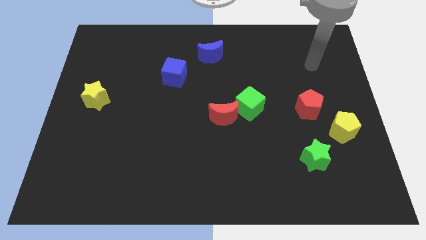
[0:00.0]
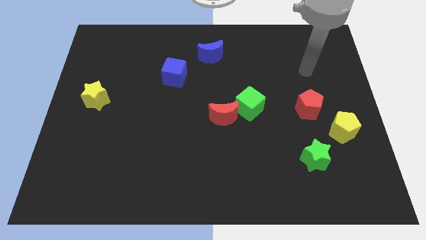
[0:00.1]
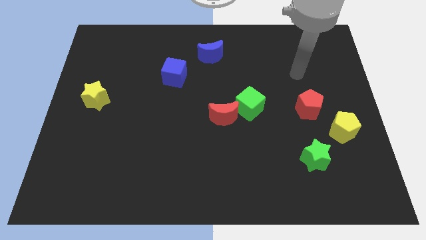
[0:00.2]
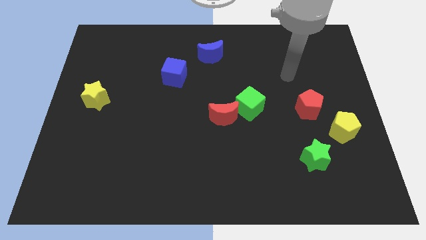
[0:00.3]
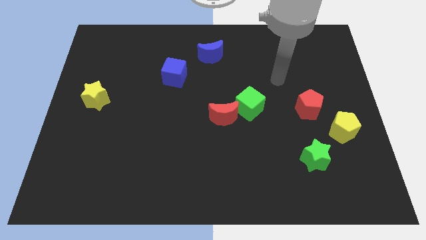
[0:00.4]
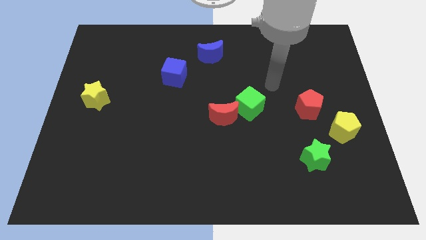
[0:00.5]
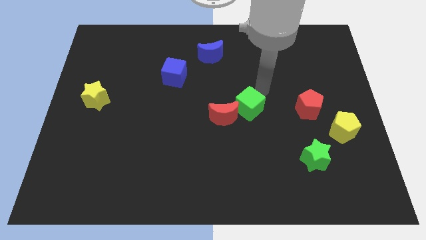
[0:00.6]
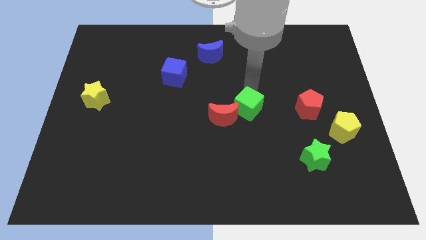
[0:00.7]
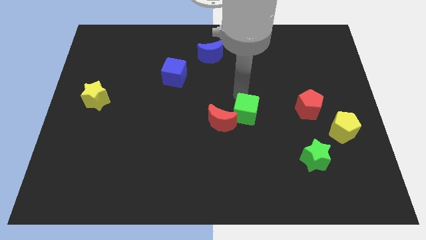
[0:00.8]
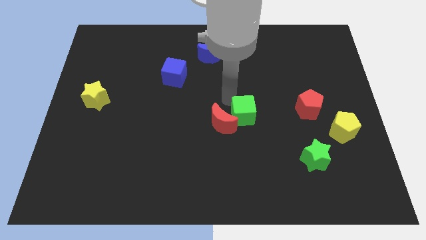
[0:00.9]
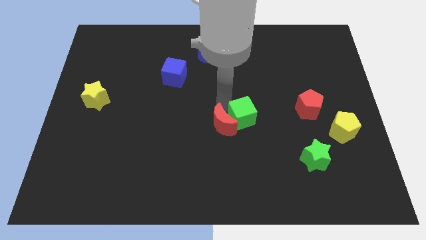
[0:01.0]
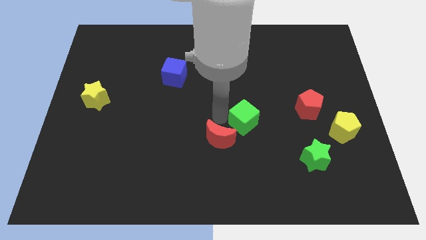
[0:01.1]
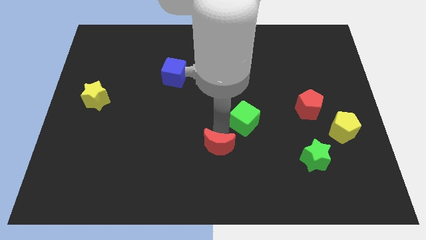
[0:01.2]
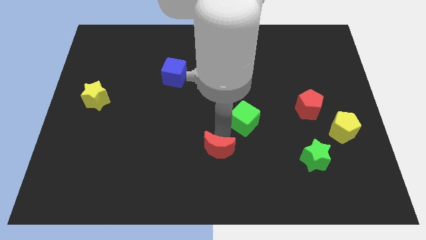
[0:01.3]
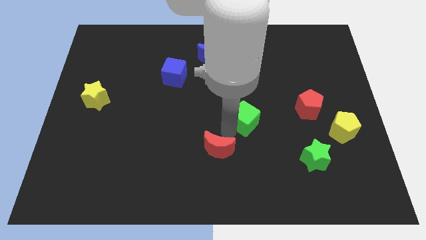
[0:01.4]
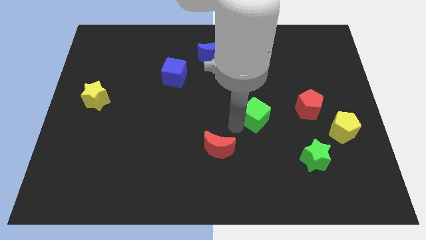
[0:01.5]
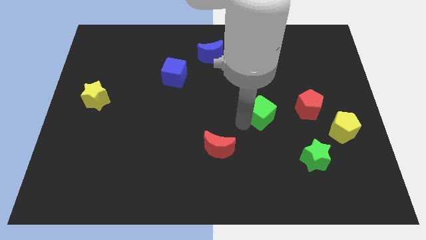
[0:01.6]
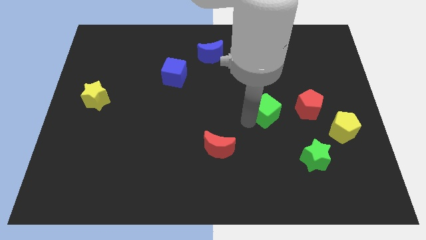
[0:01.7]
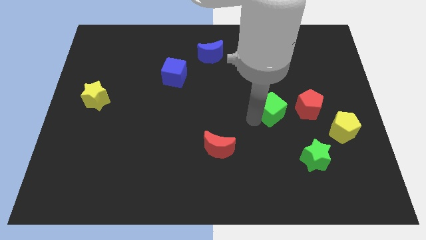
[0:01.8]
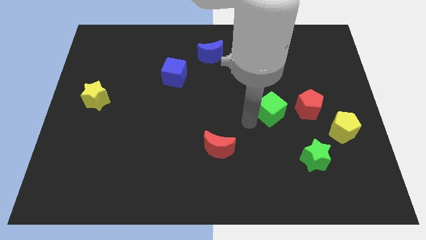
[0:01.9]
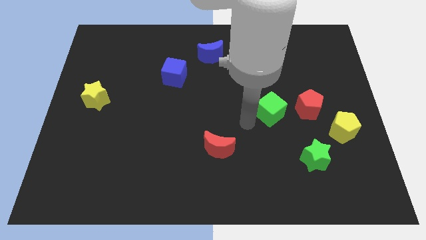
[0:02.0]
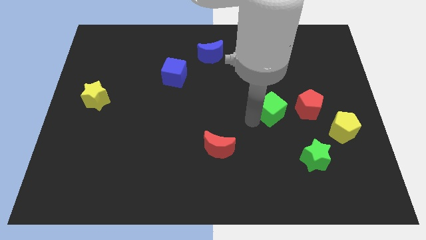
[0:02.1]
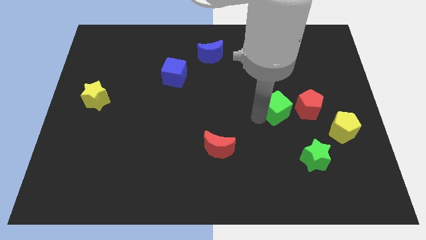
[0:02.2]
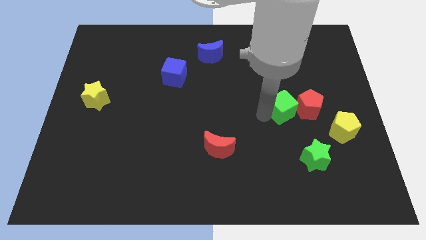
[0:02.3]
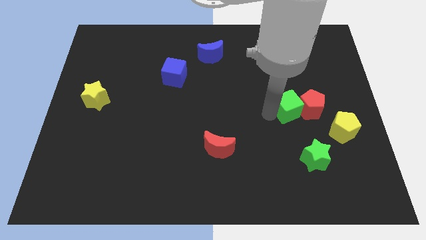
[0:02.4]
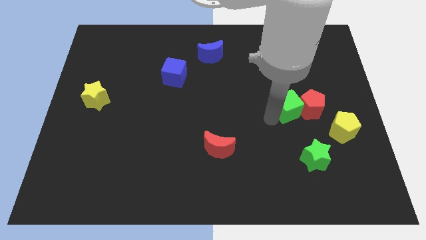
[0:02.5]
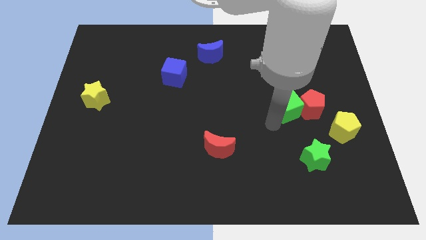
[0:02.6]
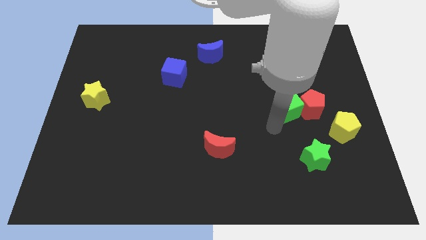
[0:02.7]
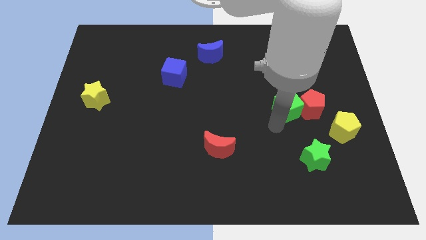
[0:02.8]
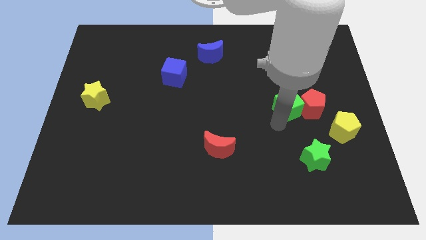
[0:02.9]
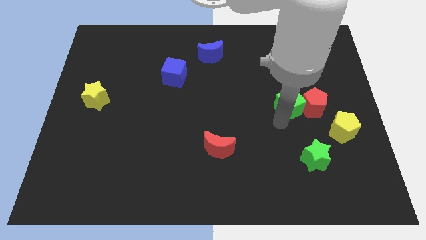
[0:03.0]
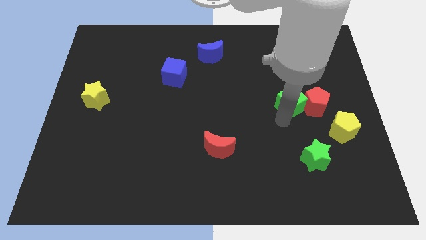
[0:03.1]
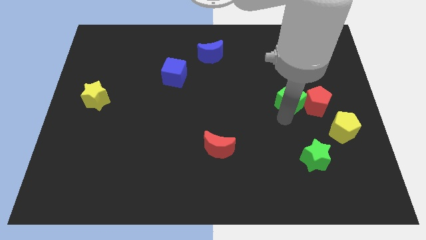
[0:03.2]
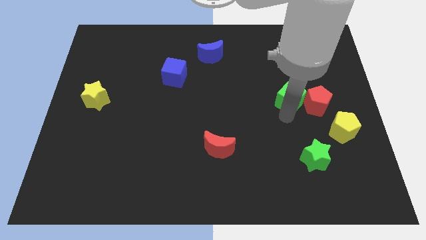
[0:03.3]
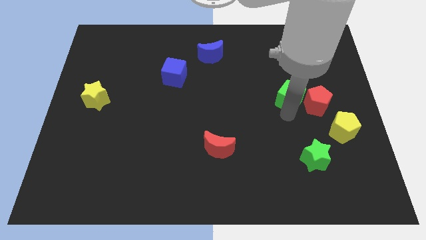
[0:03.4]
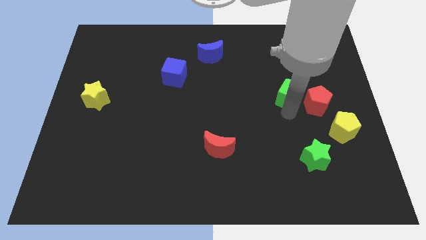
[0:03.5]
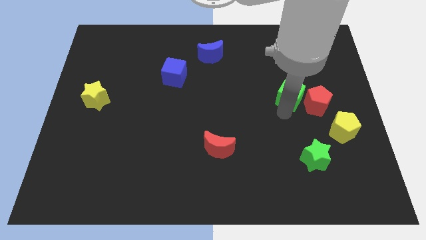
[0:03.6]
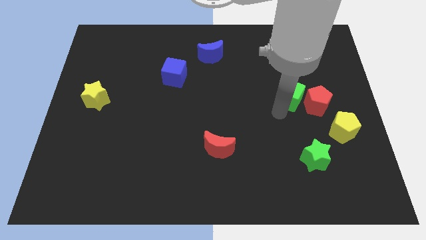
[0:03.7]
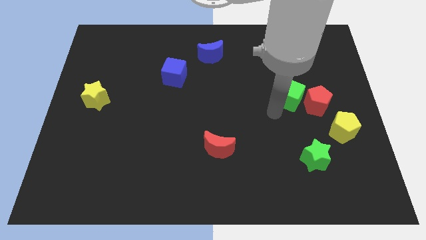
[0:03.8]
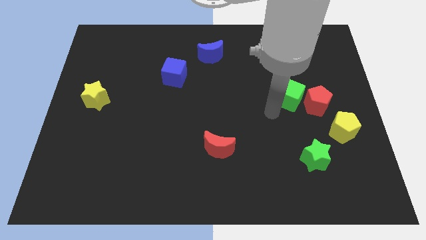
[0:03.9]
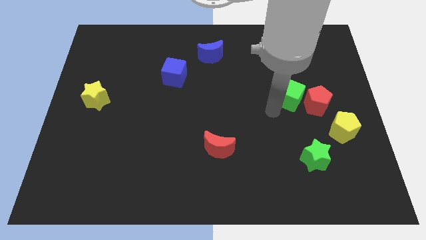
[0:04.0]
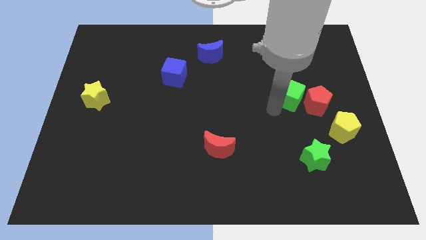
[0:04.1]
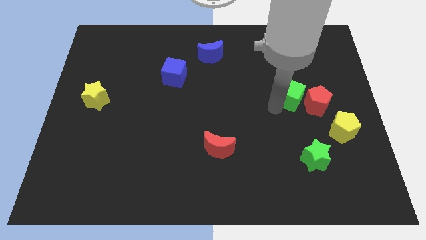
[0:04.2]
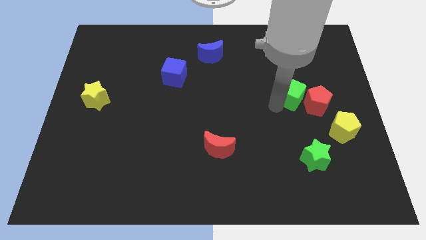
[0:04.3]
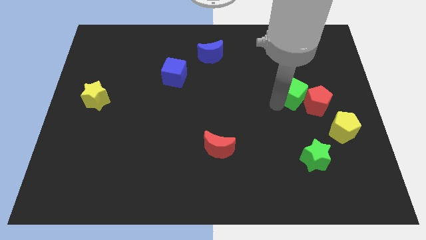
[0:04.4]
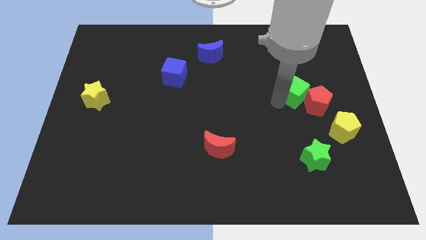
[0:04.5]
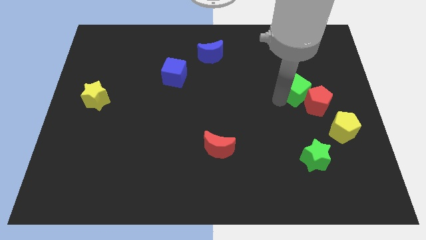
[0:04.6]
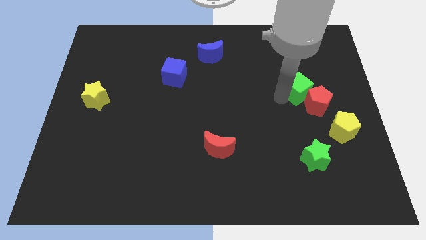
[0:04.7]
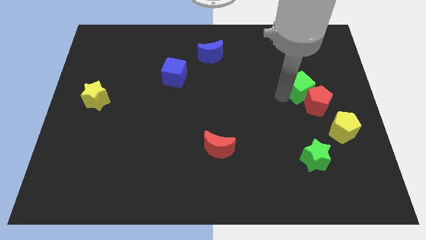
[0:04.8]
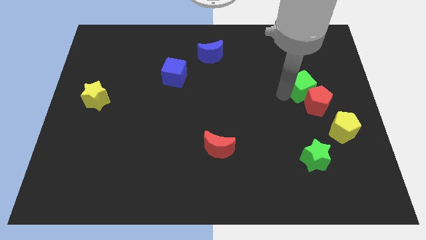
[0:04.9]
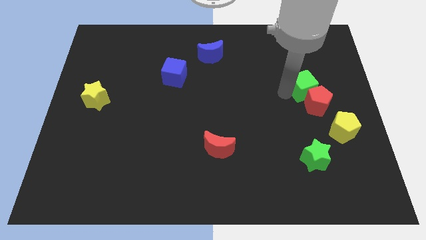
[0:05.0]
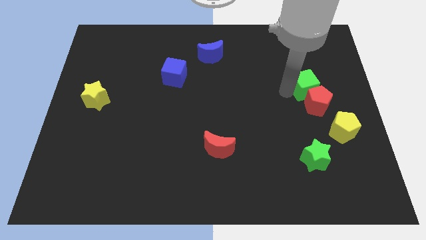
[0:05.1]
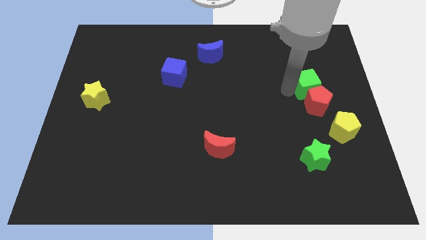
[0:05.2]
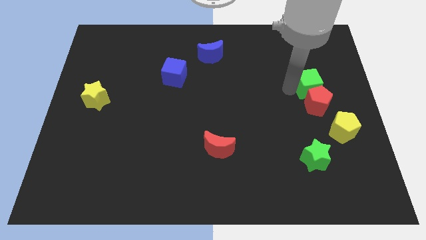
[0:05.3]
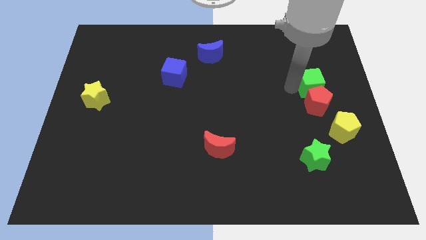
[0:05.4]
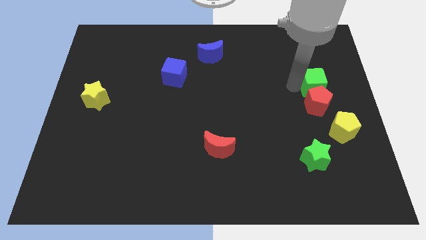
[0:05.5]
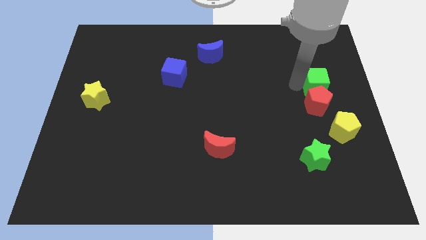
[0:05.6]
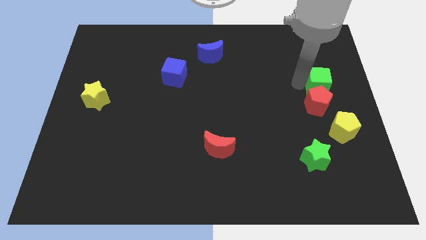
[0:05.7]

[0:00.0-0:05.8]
push the green cube to the right side

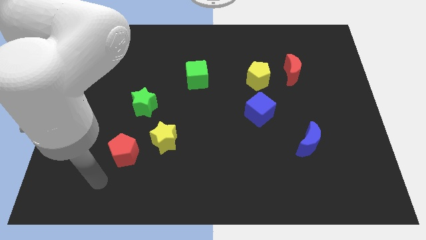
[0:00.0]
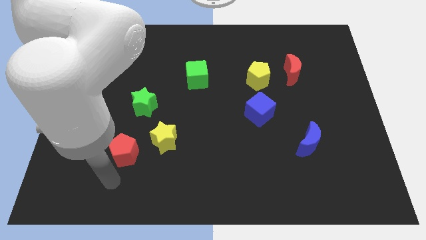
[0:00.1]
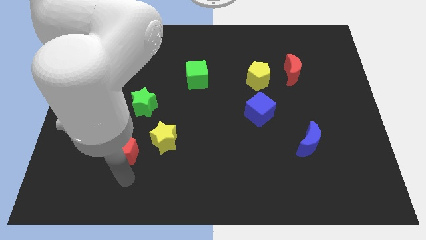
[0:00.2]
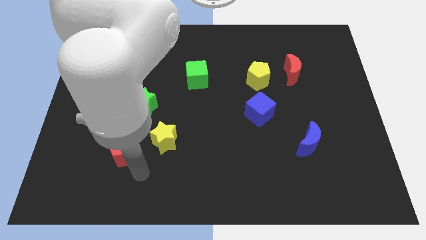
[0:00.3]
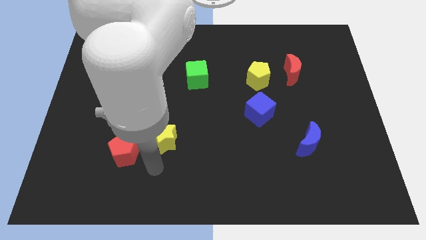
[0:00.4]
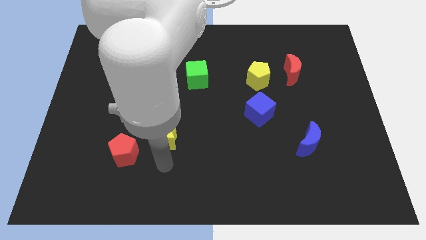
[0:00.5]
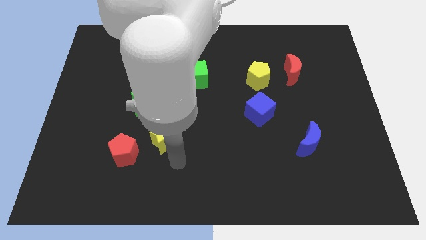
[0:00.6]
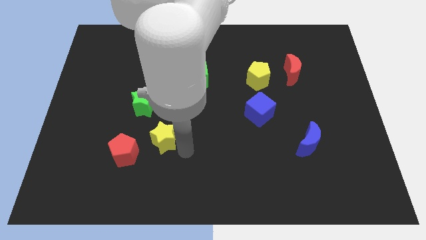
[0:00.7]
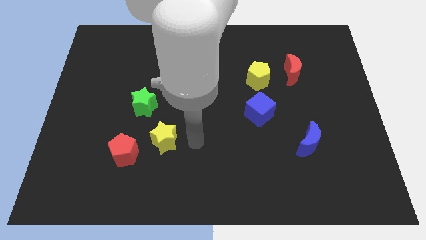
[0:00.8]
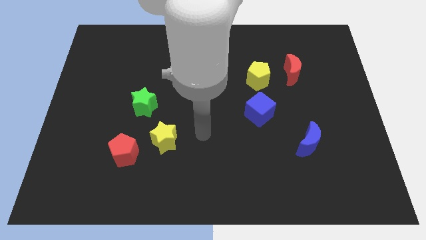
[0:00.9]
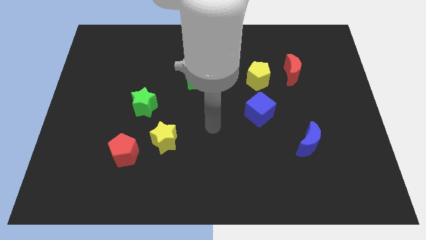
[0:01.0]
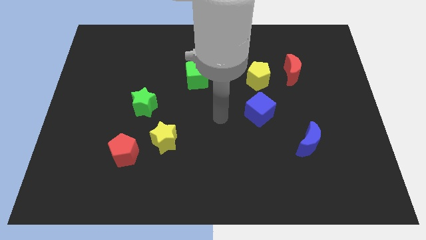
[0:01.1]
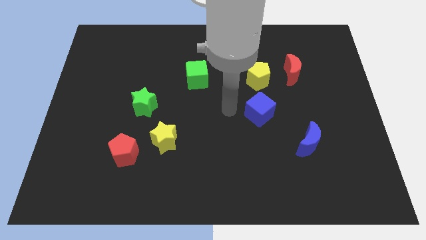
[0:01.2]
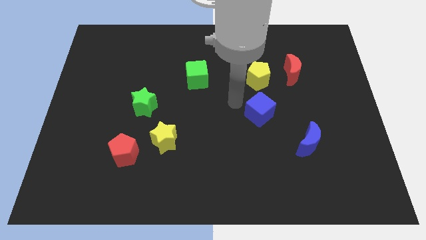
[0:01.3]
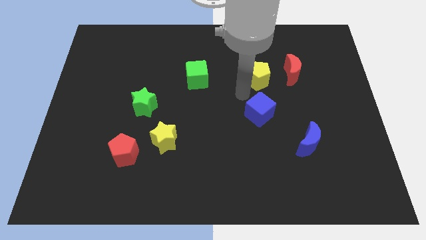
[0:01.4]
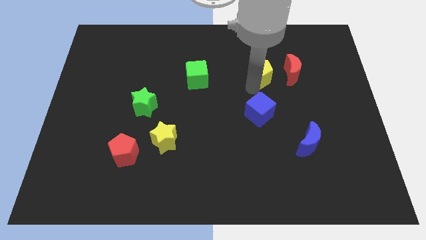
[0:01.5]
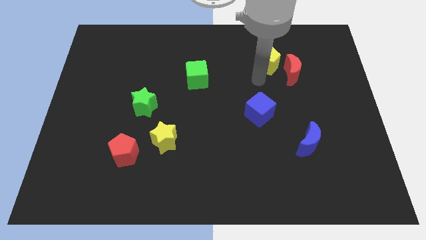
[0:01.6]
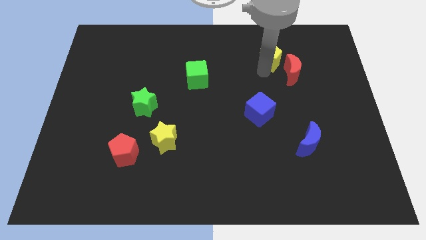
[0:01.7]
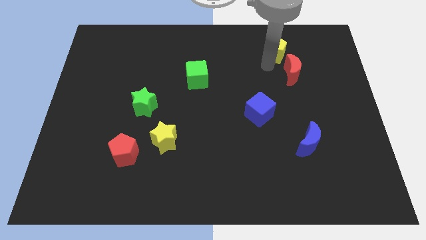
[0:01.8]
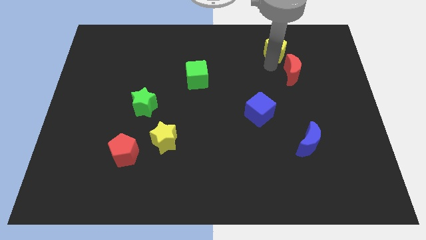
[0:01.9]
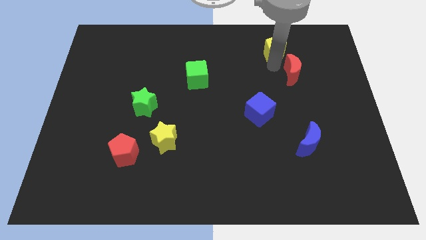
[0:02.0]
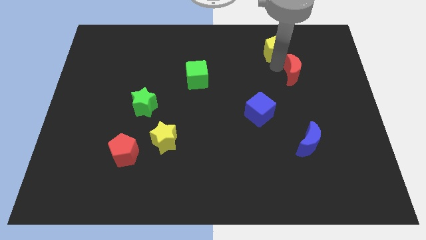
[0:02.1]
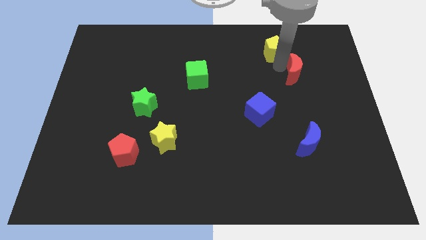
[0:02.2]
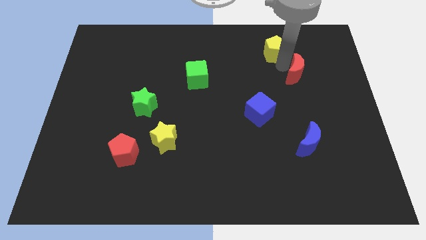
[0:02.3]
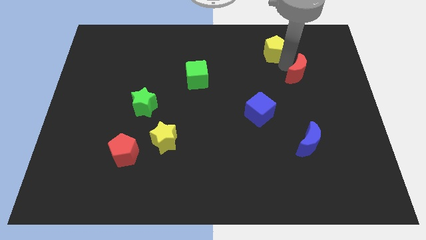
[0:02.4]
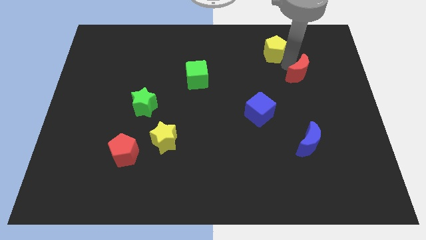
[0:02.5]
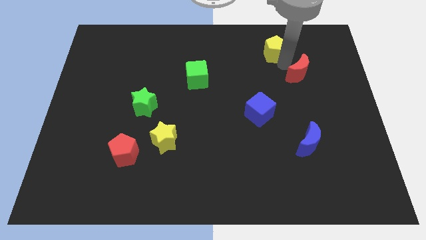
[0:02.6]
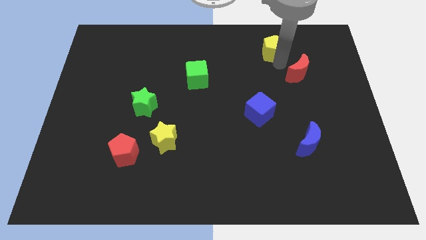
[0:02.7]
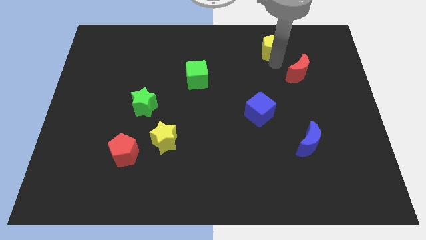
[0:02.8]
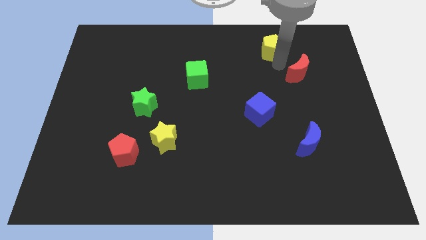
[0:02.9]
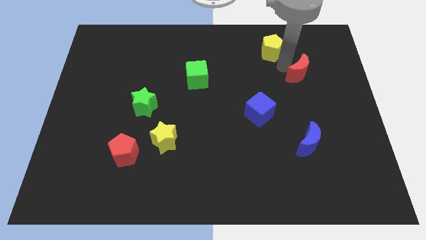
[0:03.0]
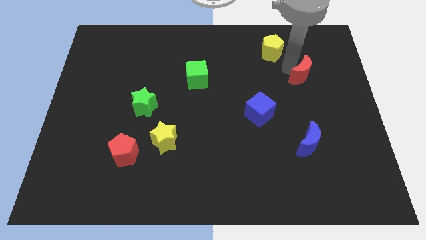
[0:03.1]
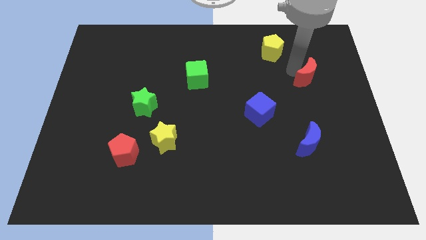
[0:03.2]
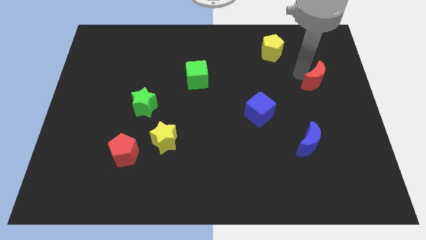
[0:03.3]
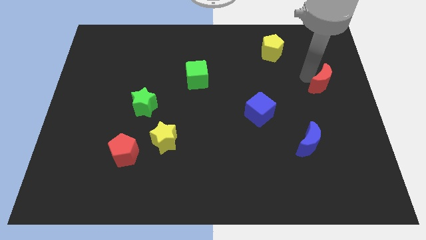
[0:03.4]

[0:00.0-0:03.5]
push the red moon to the right side of the board
